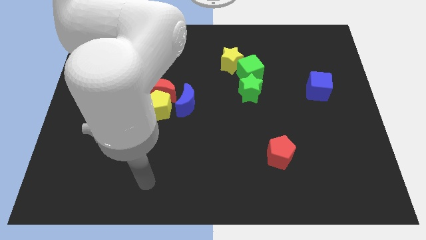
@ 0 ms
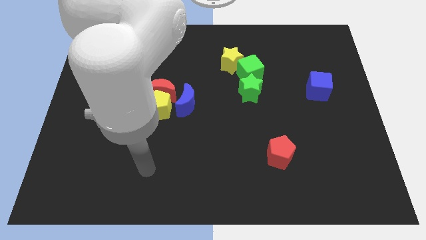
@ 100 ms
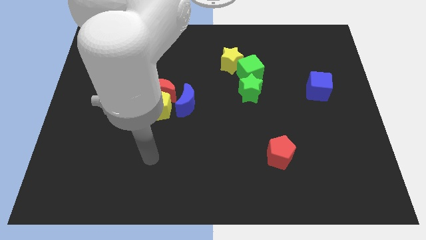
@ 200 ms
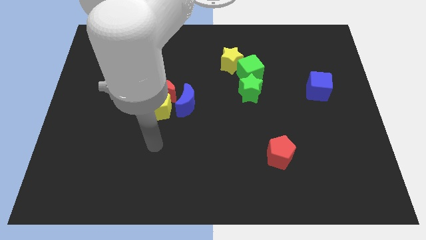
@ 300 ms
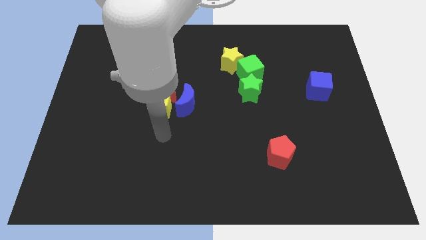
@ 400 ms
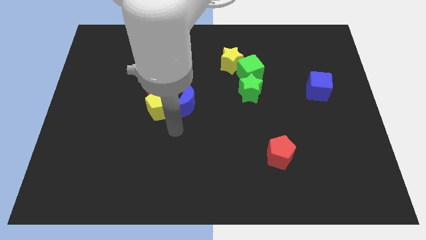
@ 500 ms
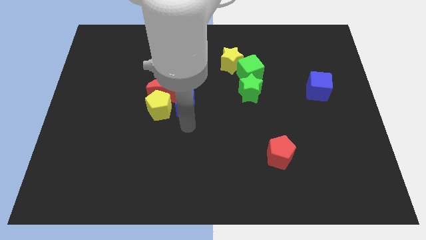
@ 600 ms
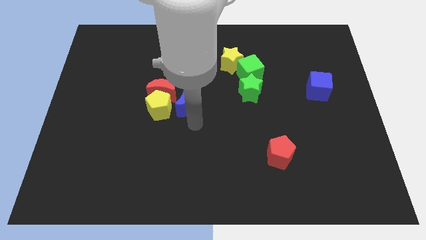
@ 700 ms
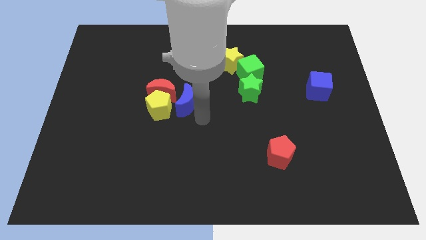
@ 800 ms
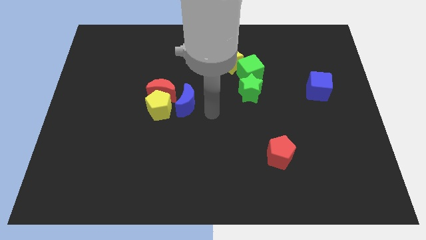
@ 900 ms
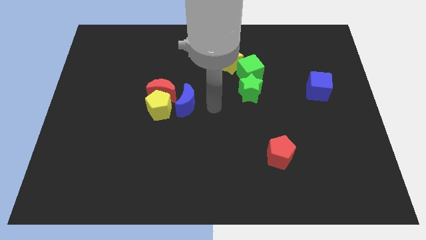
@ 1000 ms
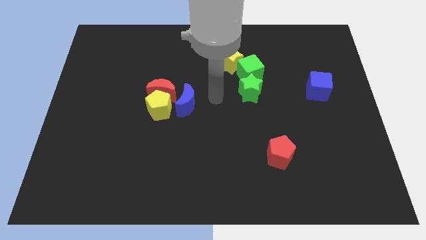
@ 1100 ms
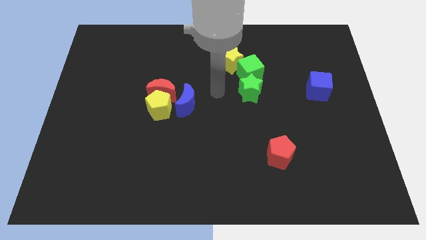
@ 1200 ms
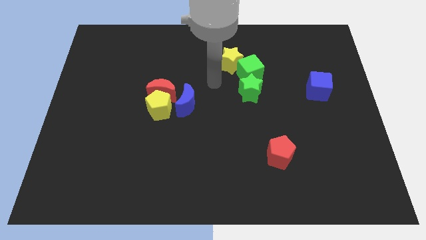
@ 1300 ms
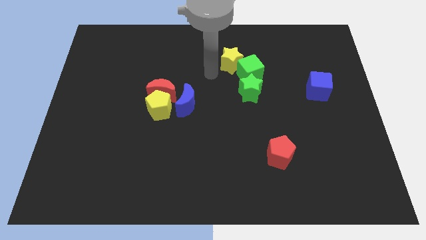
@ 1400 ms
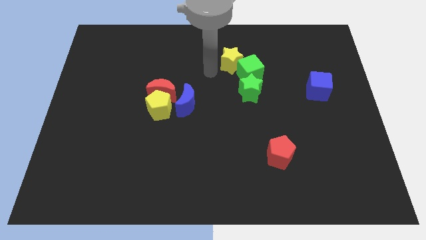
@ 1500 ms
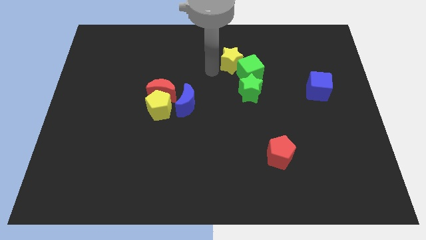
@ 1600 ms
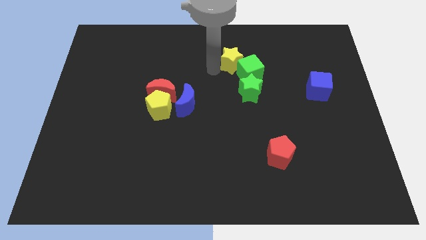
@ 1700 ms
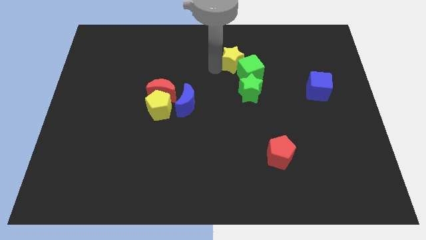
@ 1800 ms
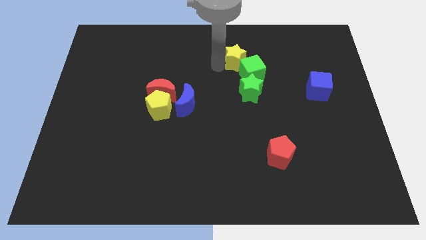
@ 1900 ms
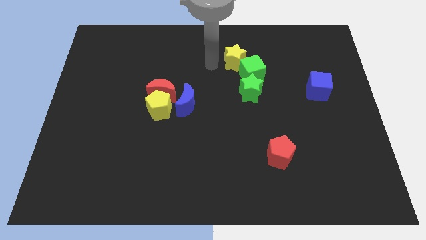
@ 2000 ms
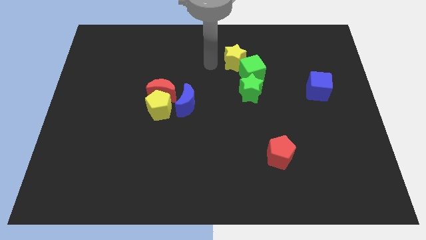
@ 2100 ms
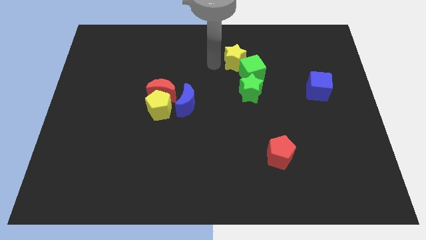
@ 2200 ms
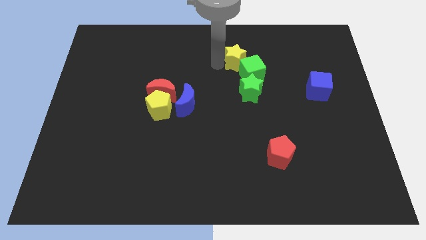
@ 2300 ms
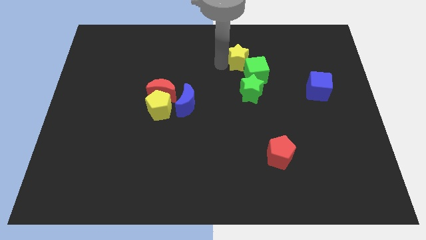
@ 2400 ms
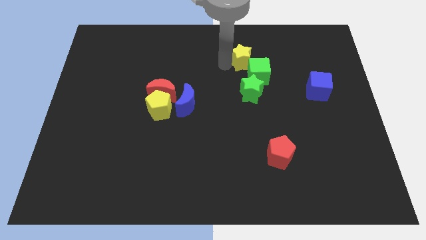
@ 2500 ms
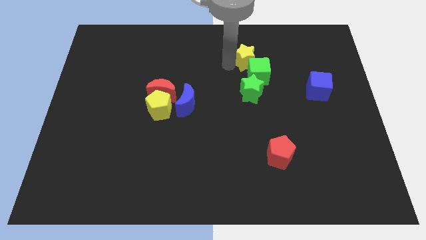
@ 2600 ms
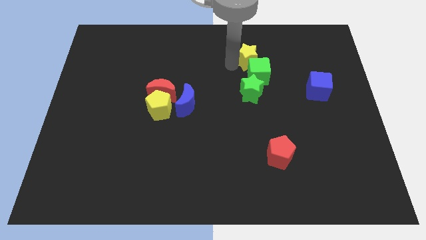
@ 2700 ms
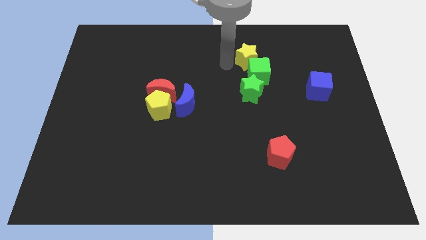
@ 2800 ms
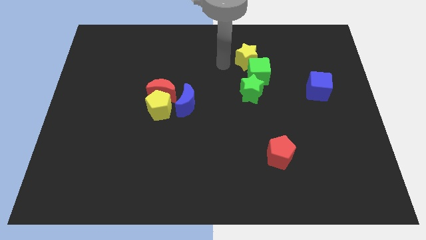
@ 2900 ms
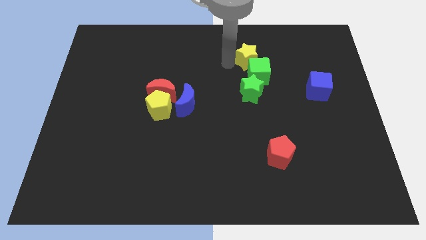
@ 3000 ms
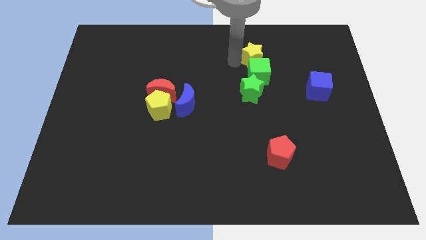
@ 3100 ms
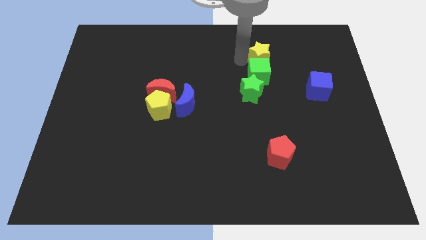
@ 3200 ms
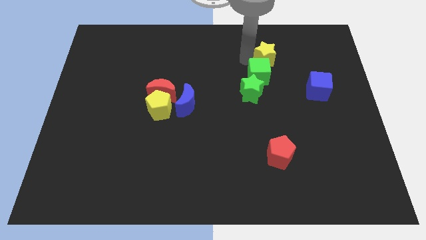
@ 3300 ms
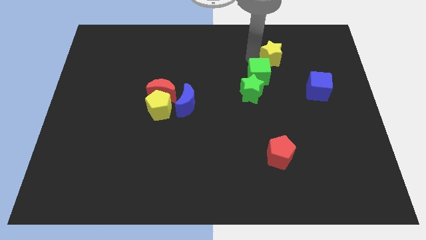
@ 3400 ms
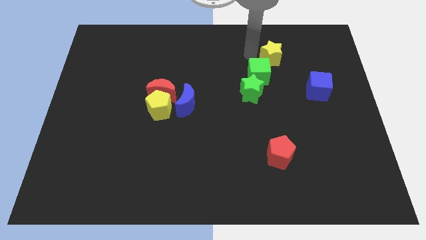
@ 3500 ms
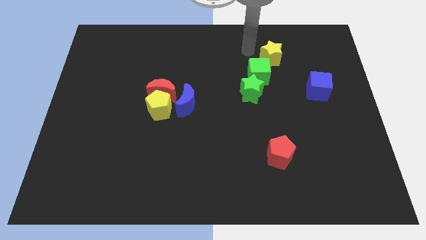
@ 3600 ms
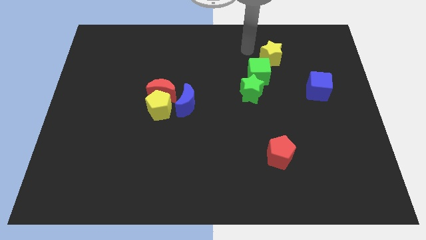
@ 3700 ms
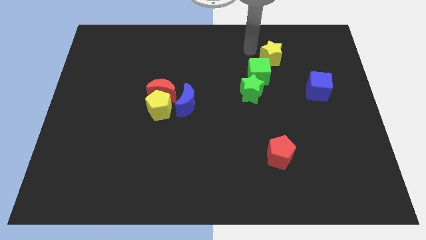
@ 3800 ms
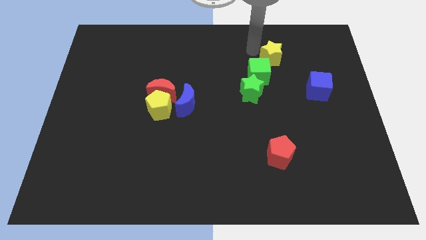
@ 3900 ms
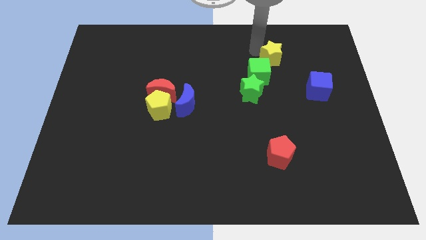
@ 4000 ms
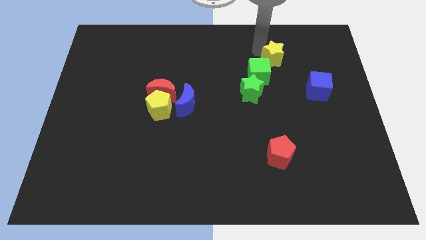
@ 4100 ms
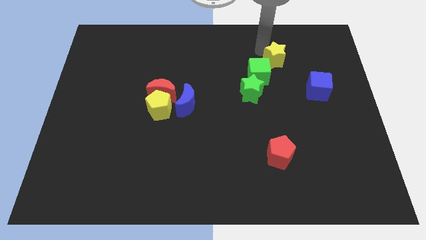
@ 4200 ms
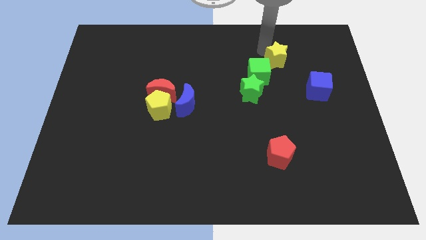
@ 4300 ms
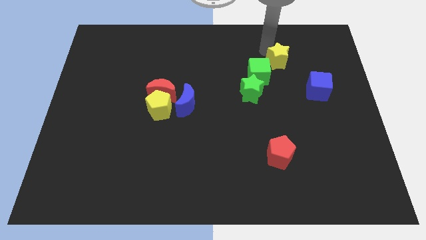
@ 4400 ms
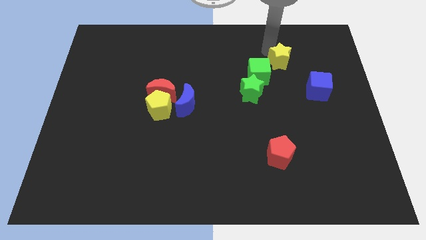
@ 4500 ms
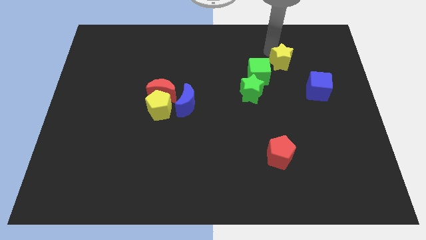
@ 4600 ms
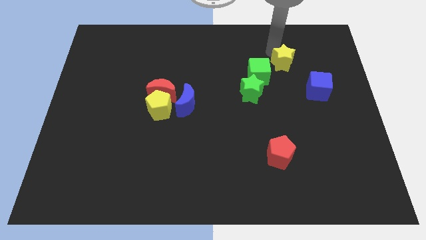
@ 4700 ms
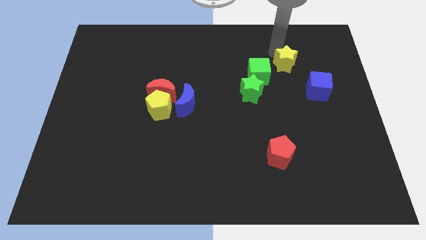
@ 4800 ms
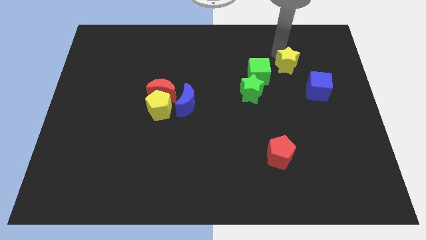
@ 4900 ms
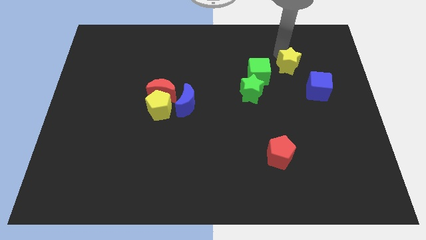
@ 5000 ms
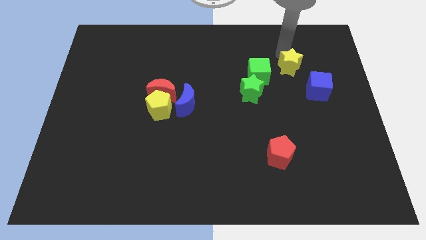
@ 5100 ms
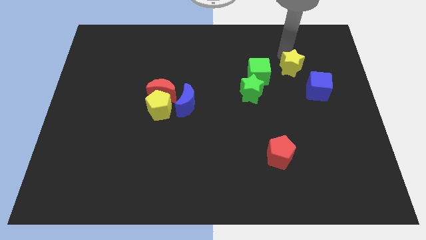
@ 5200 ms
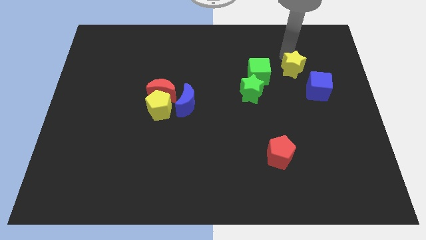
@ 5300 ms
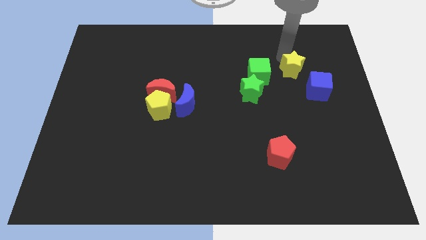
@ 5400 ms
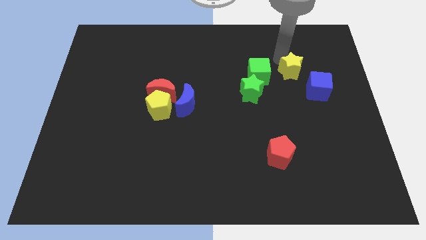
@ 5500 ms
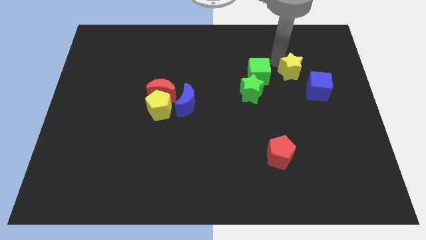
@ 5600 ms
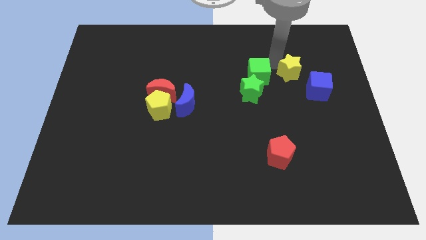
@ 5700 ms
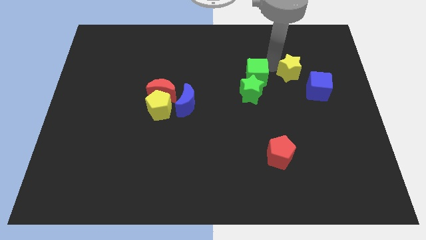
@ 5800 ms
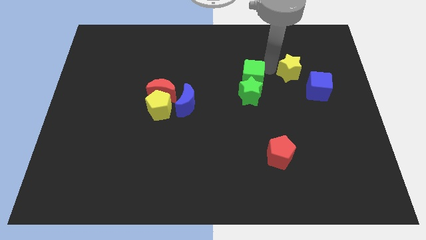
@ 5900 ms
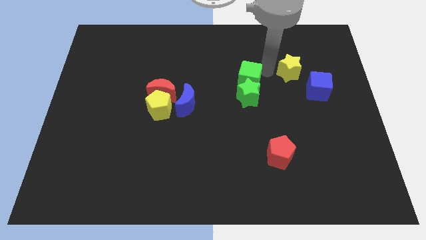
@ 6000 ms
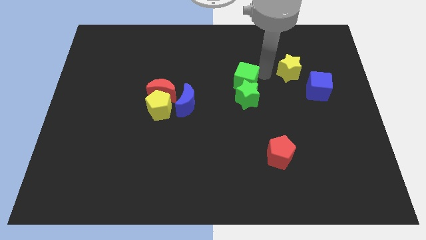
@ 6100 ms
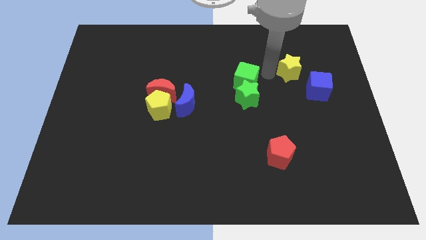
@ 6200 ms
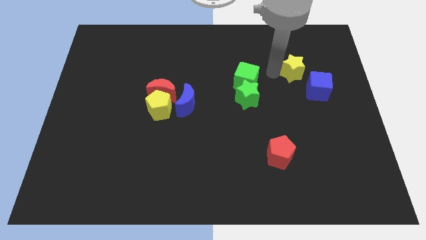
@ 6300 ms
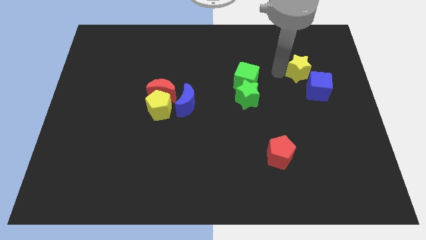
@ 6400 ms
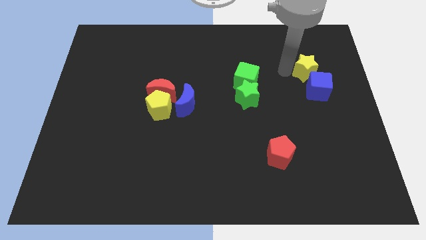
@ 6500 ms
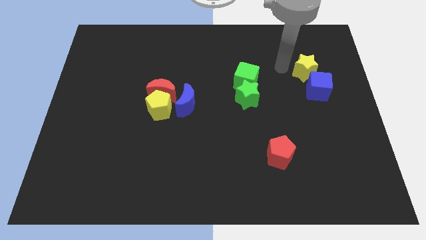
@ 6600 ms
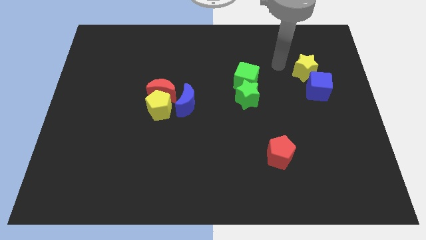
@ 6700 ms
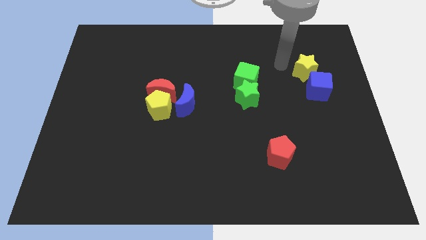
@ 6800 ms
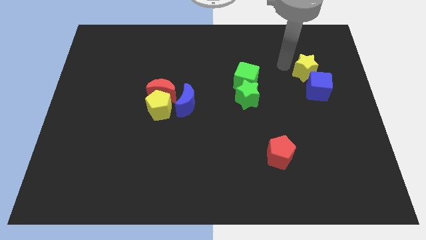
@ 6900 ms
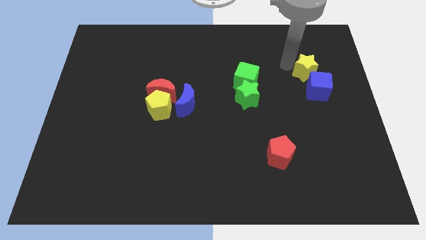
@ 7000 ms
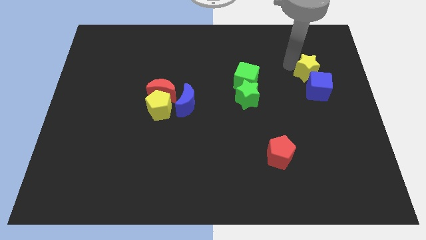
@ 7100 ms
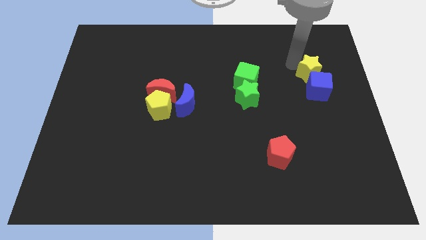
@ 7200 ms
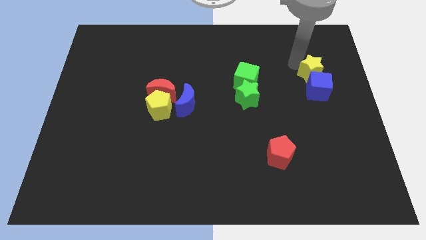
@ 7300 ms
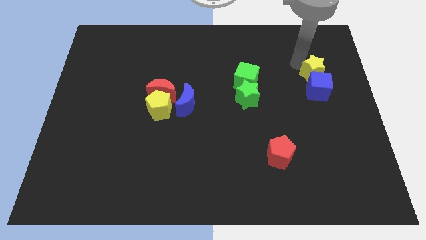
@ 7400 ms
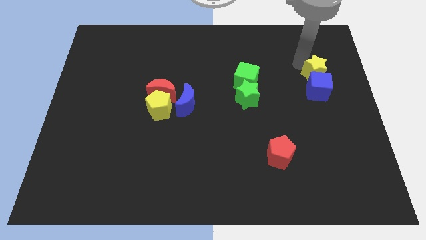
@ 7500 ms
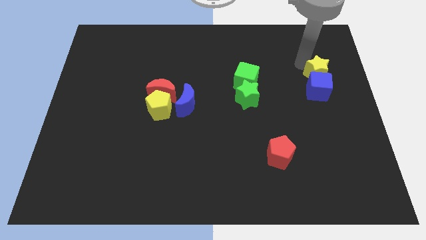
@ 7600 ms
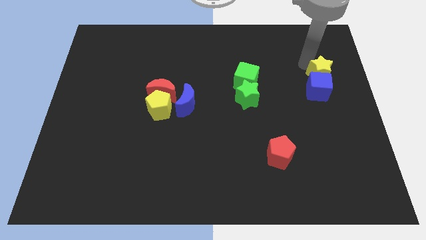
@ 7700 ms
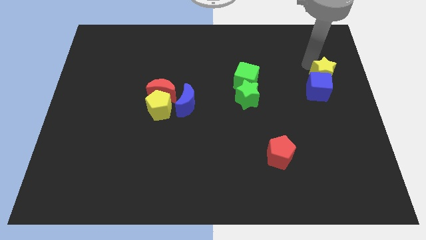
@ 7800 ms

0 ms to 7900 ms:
put the yellow star to the right side of the board
